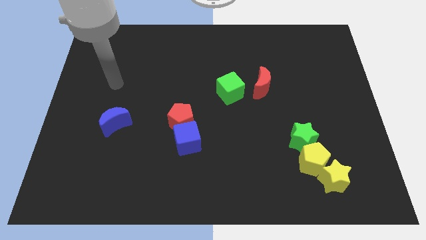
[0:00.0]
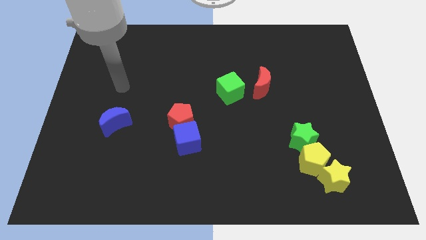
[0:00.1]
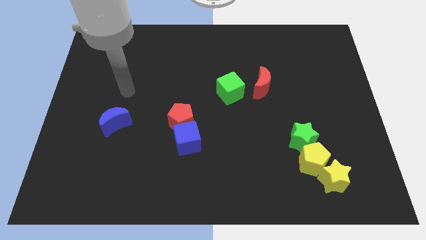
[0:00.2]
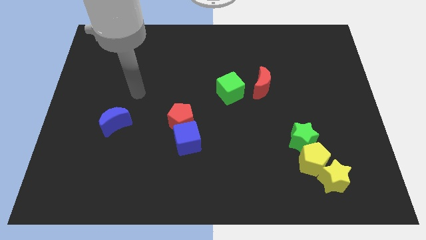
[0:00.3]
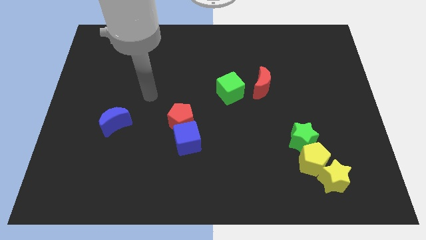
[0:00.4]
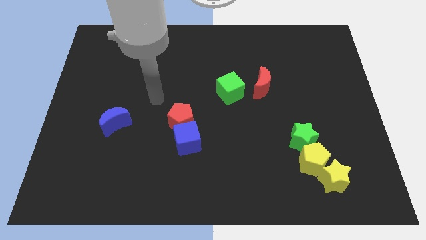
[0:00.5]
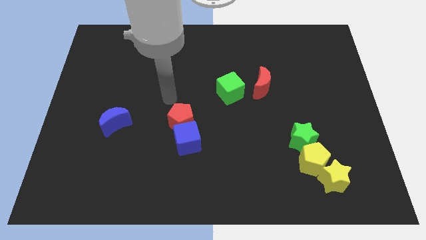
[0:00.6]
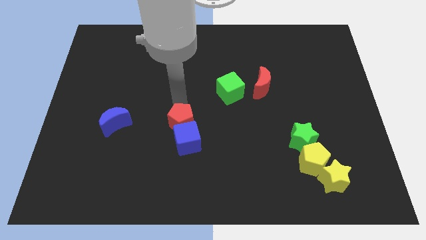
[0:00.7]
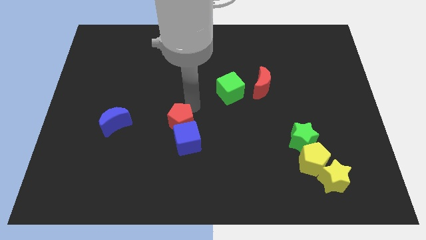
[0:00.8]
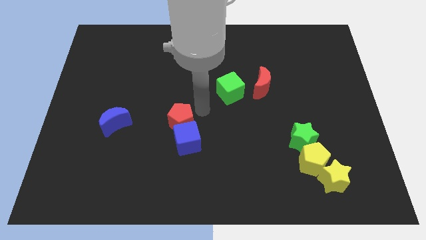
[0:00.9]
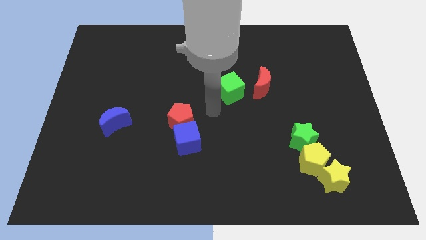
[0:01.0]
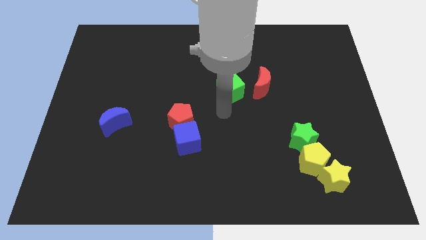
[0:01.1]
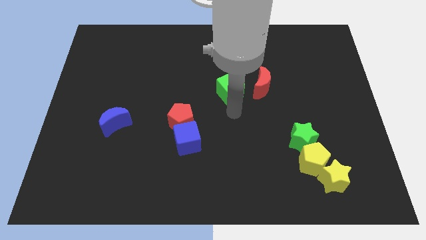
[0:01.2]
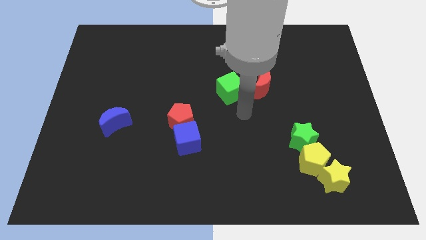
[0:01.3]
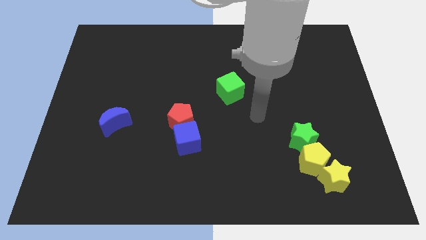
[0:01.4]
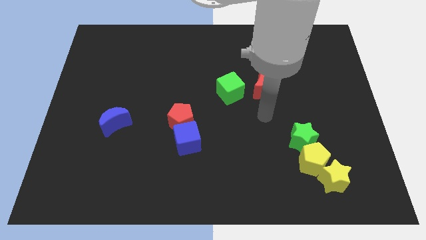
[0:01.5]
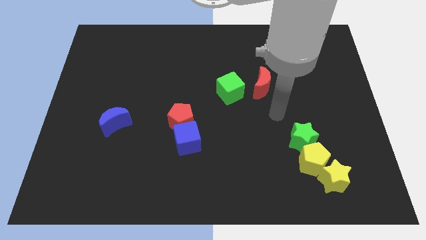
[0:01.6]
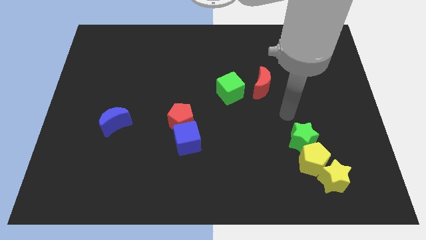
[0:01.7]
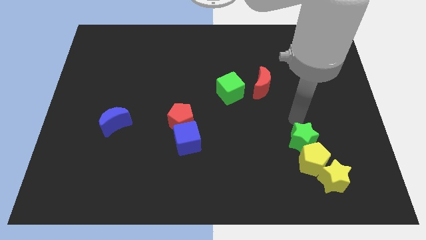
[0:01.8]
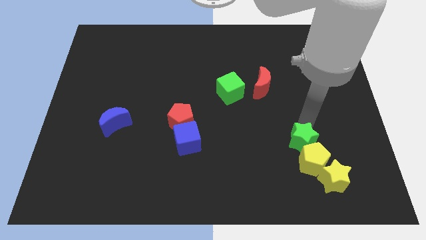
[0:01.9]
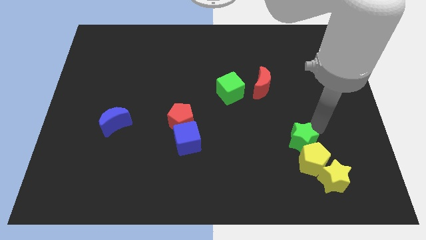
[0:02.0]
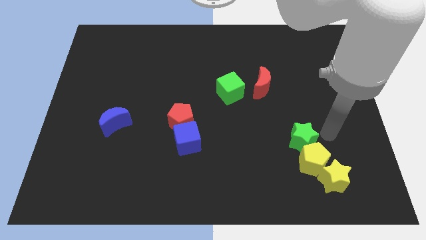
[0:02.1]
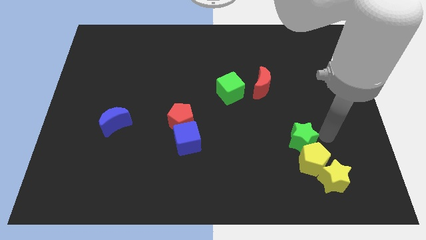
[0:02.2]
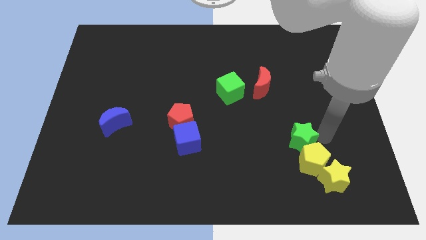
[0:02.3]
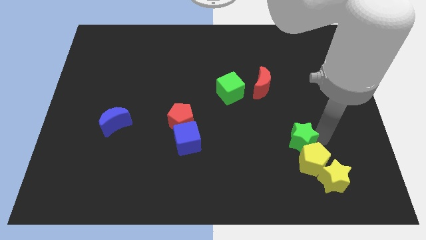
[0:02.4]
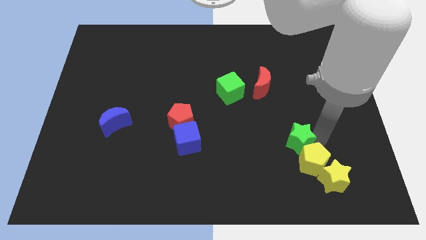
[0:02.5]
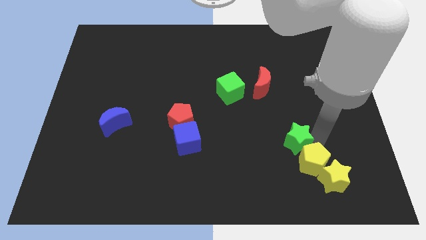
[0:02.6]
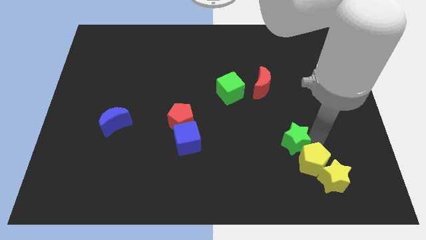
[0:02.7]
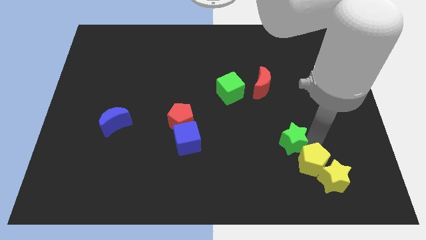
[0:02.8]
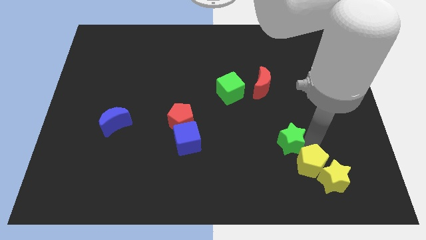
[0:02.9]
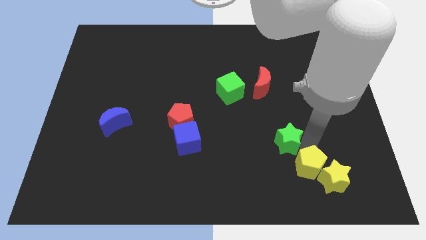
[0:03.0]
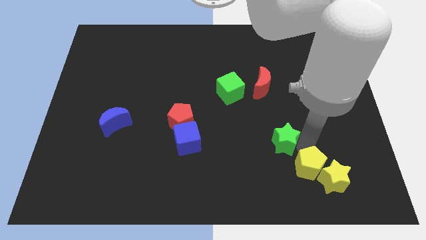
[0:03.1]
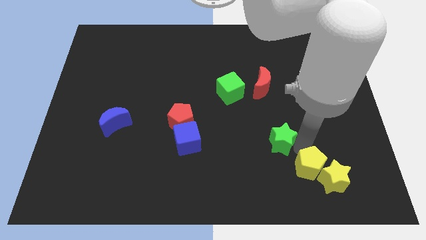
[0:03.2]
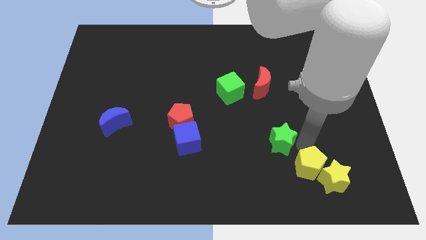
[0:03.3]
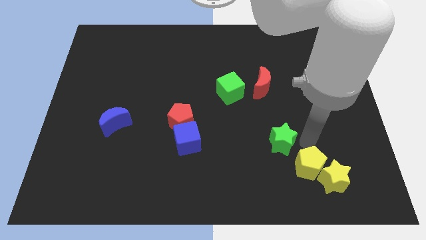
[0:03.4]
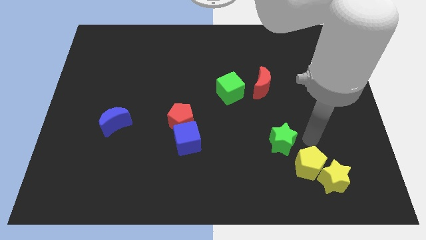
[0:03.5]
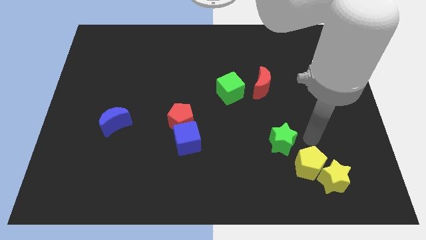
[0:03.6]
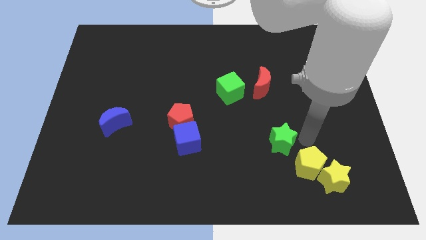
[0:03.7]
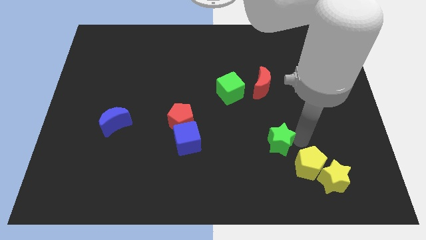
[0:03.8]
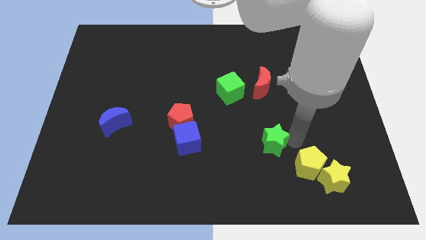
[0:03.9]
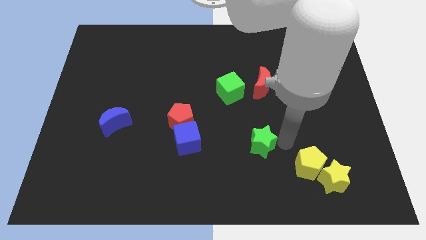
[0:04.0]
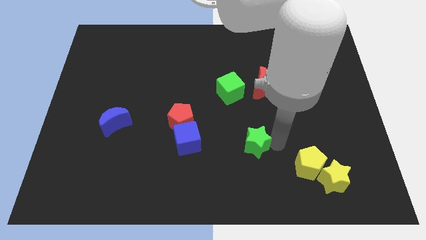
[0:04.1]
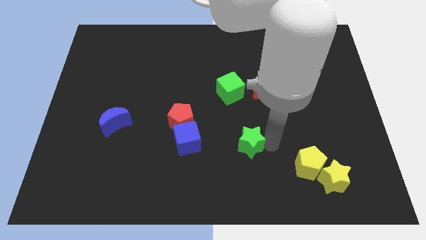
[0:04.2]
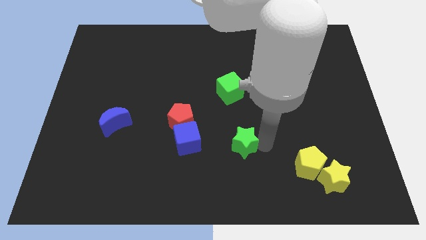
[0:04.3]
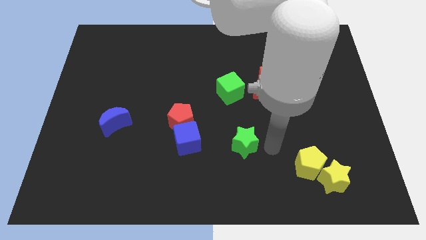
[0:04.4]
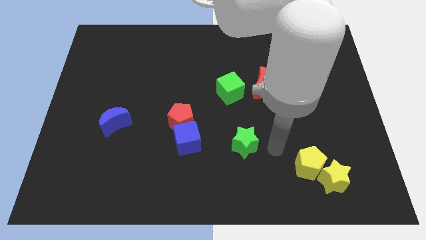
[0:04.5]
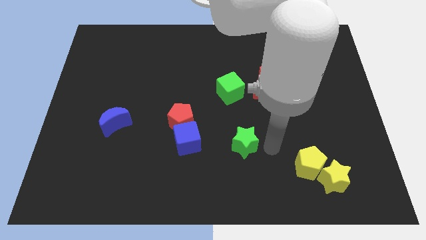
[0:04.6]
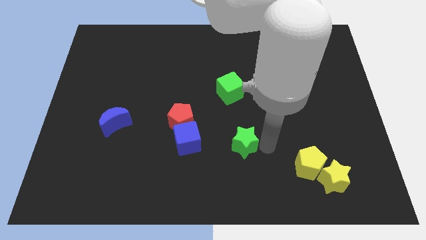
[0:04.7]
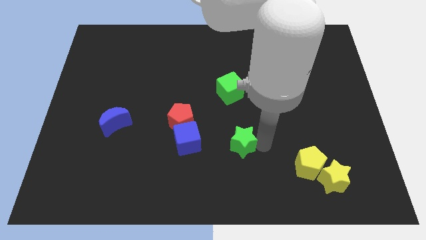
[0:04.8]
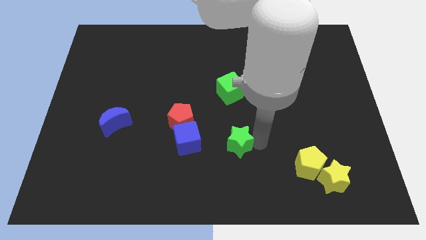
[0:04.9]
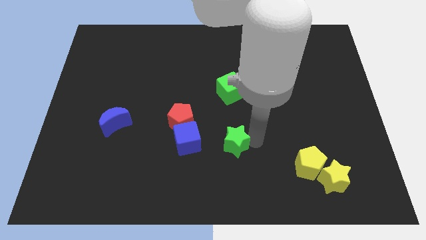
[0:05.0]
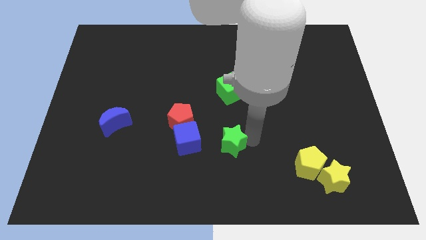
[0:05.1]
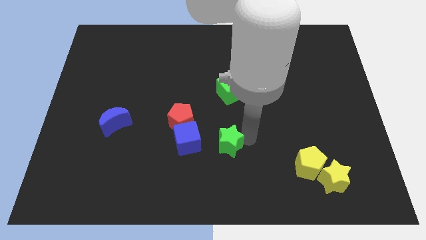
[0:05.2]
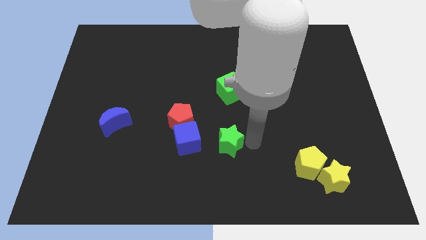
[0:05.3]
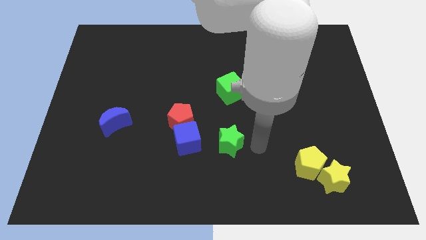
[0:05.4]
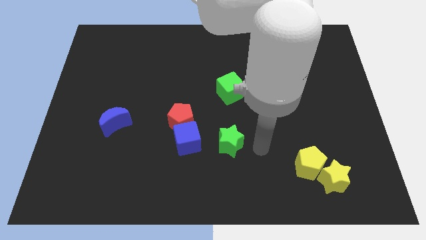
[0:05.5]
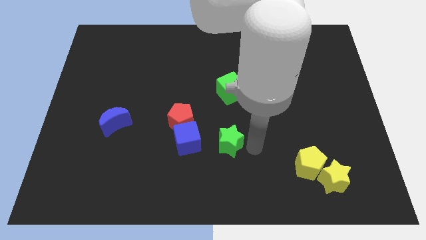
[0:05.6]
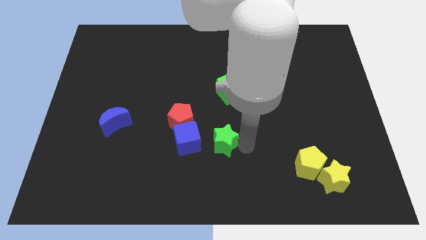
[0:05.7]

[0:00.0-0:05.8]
push the green star to the bottom right of the red pentagon

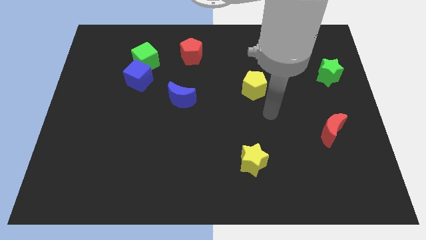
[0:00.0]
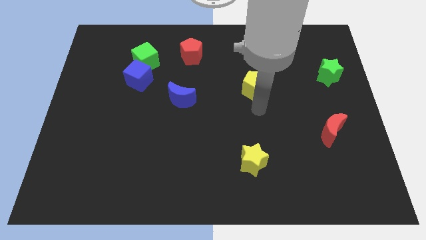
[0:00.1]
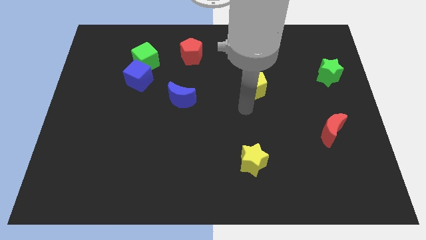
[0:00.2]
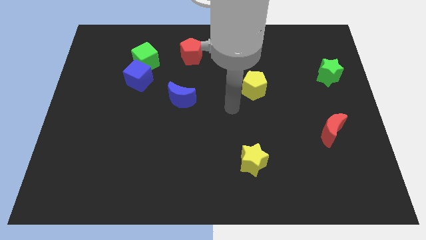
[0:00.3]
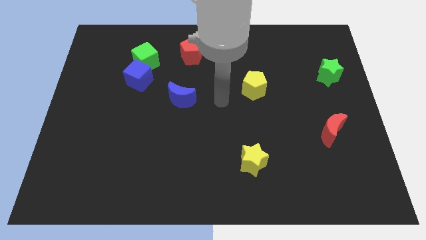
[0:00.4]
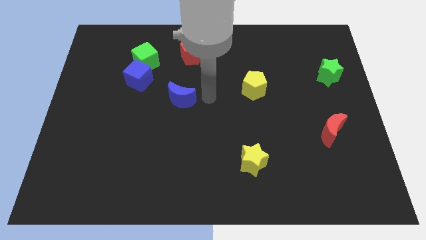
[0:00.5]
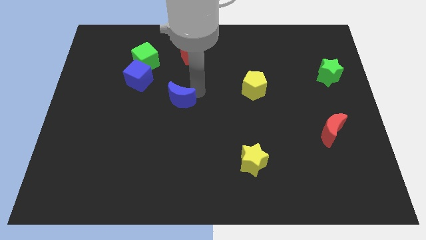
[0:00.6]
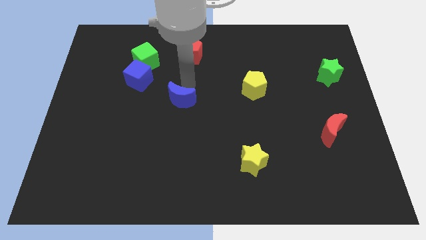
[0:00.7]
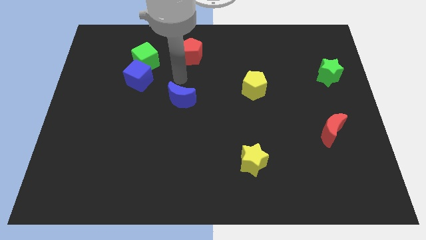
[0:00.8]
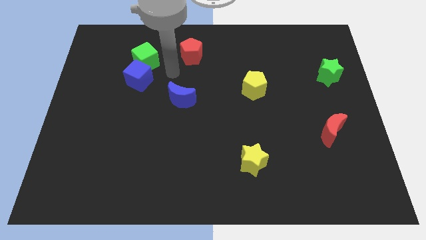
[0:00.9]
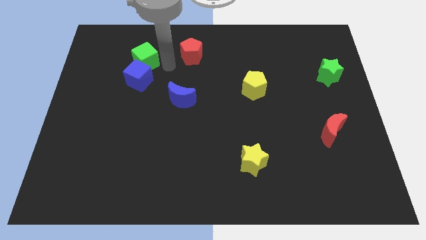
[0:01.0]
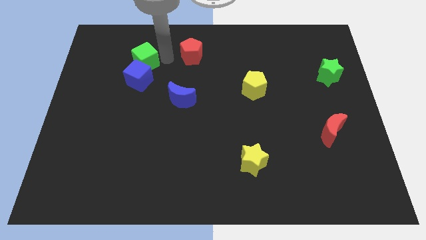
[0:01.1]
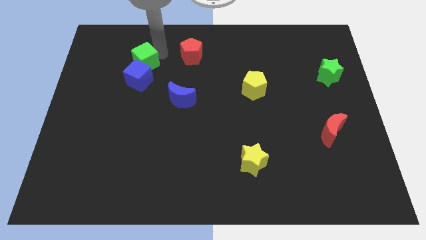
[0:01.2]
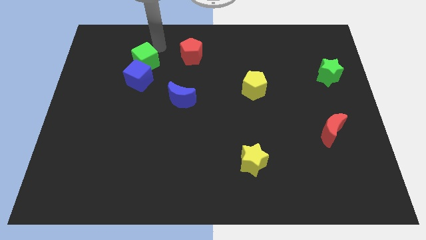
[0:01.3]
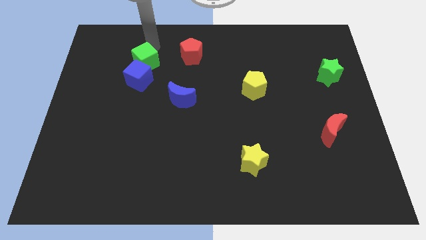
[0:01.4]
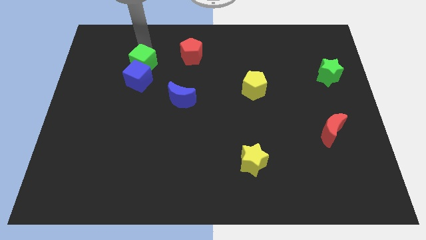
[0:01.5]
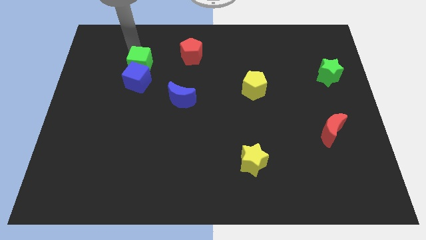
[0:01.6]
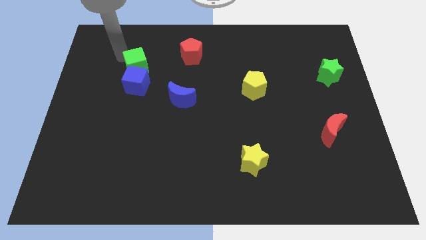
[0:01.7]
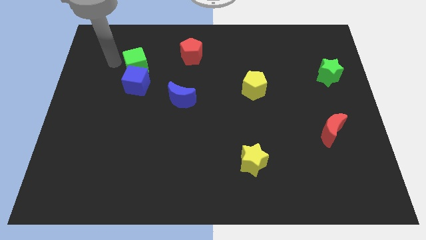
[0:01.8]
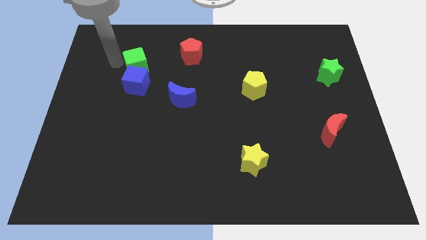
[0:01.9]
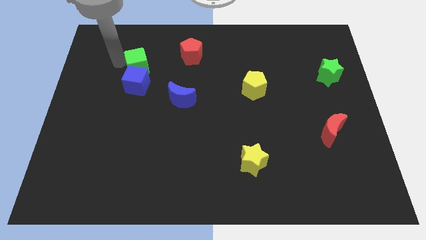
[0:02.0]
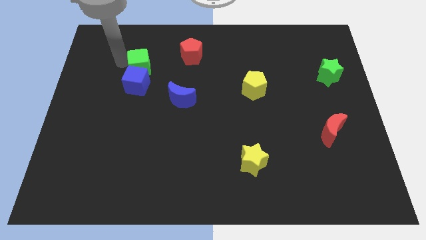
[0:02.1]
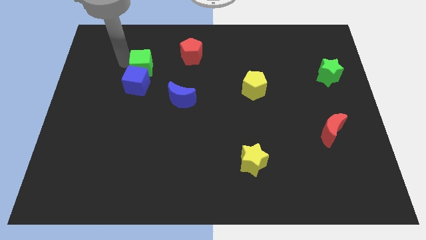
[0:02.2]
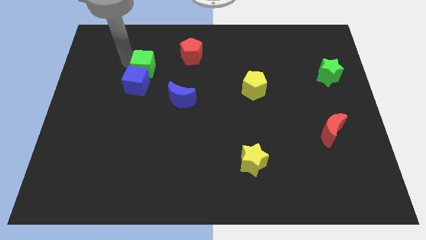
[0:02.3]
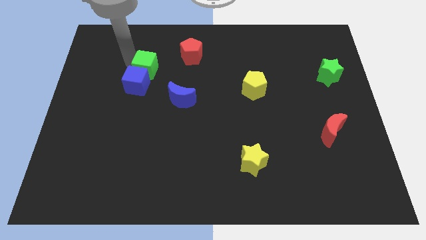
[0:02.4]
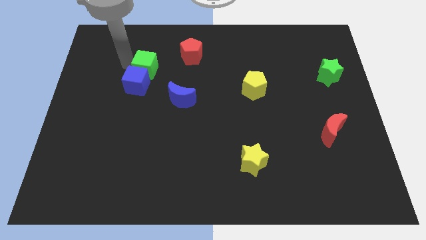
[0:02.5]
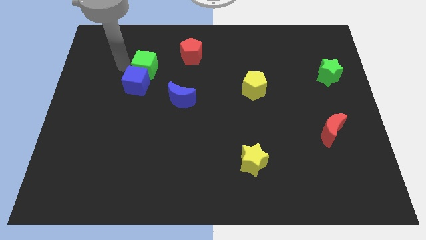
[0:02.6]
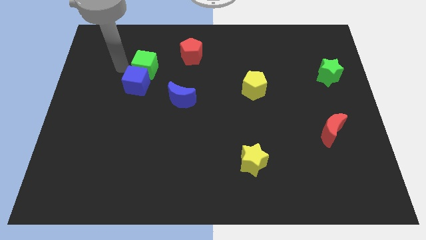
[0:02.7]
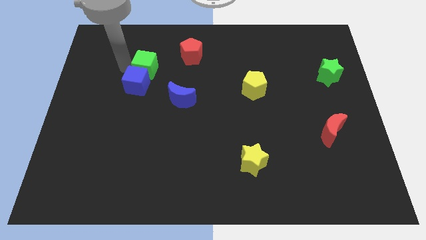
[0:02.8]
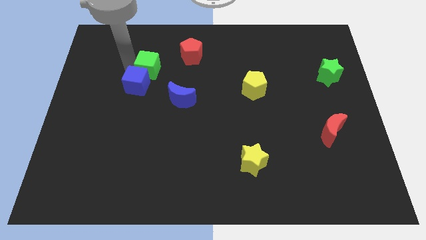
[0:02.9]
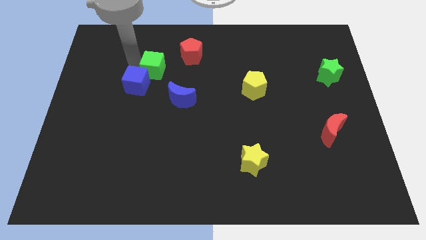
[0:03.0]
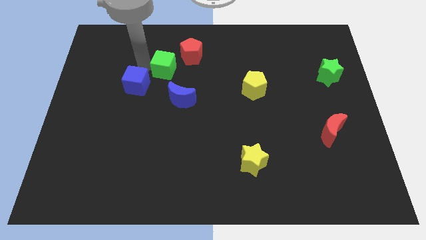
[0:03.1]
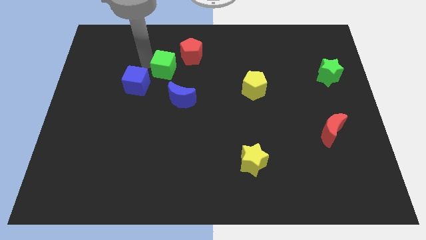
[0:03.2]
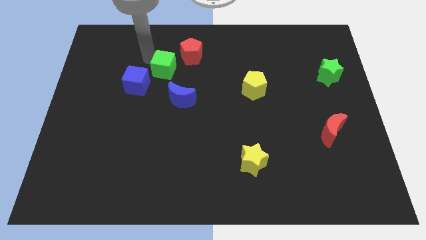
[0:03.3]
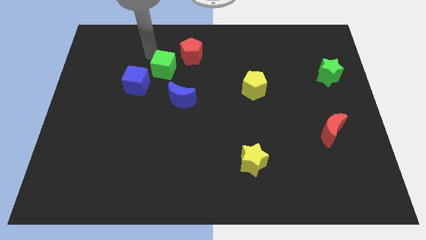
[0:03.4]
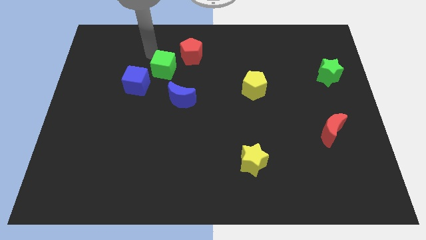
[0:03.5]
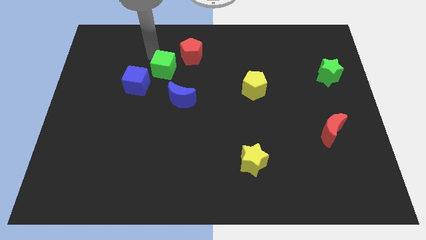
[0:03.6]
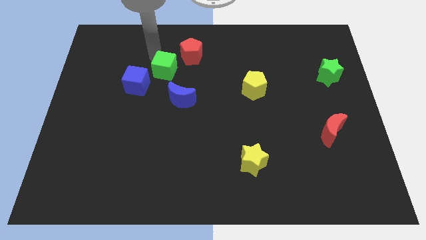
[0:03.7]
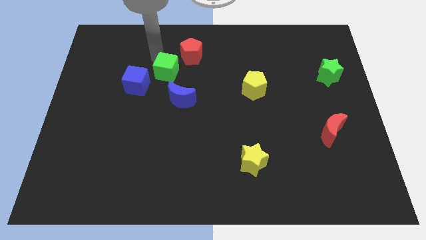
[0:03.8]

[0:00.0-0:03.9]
move the green cube right of the blue cube
